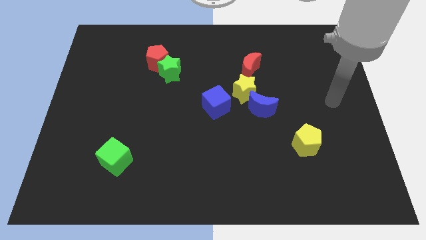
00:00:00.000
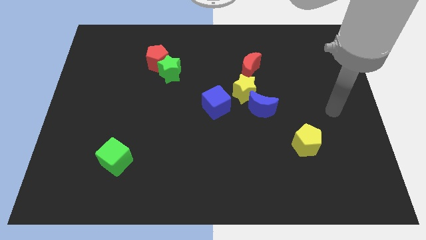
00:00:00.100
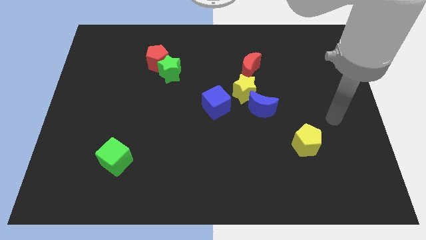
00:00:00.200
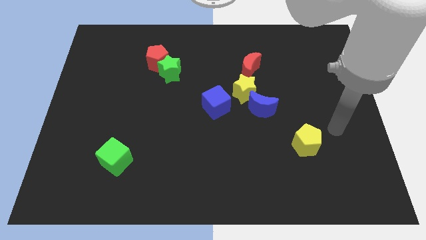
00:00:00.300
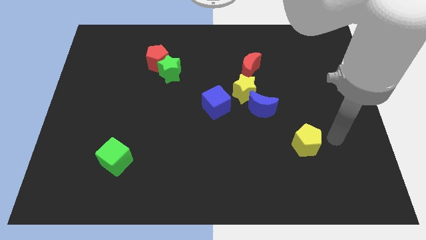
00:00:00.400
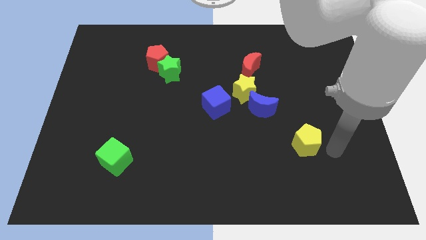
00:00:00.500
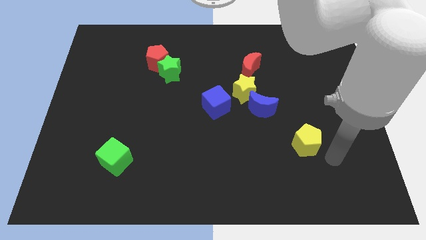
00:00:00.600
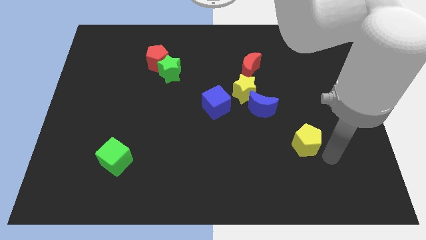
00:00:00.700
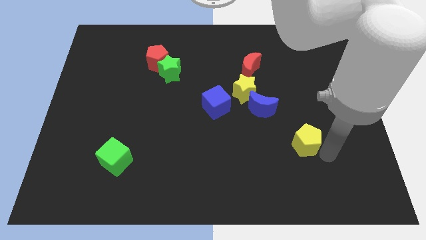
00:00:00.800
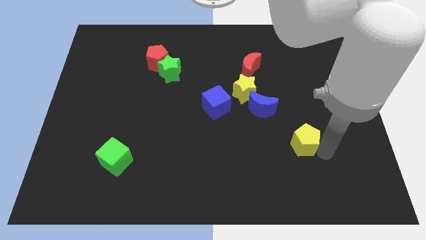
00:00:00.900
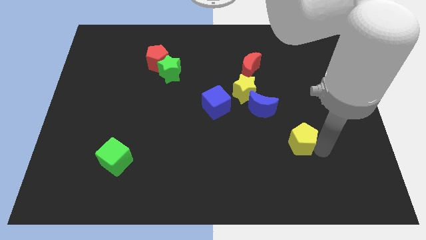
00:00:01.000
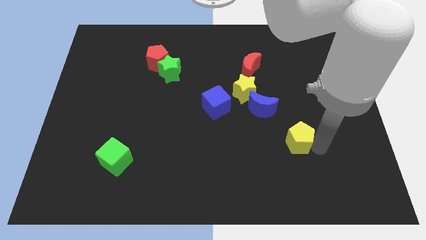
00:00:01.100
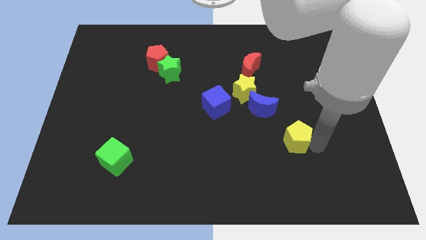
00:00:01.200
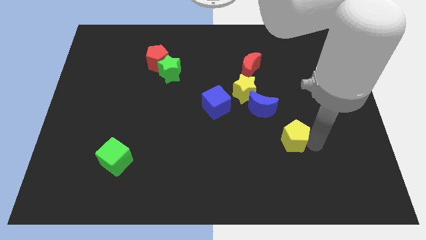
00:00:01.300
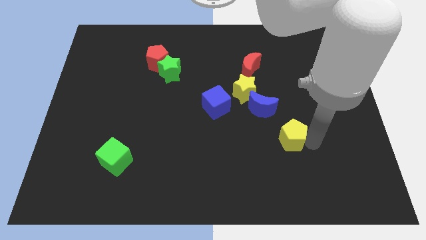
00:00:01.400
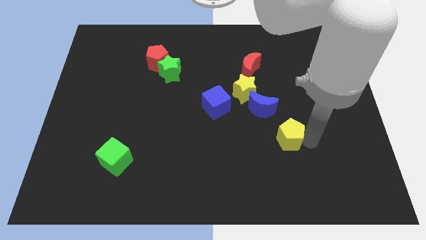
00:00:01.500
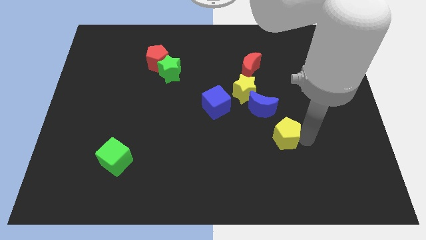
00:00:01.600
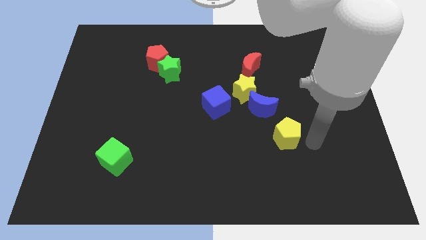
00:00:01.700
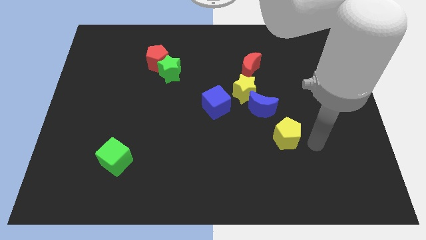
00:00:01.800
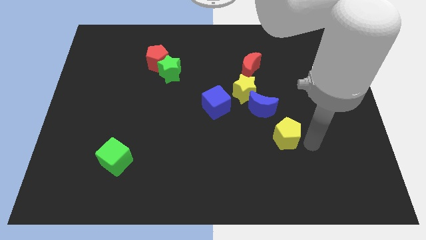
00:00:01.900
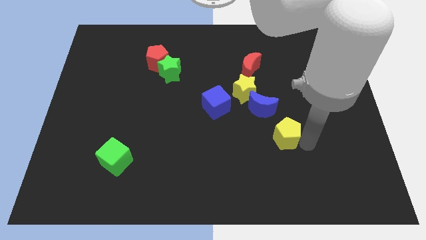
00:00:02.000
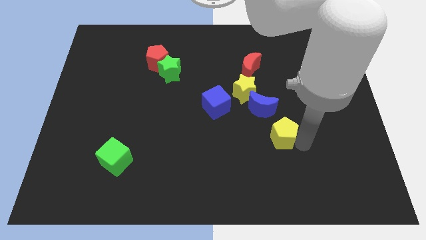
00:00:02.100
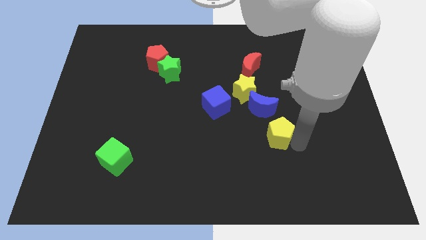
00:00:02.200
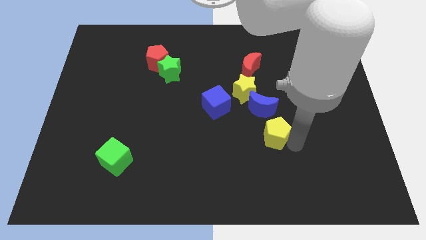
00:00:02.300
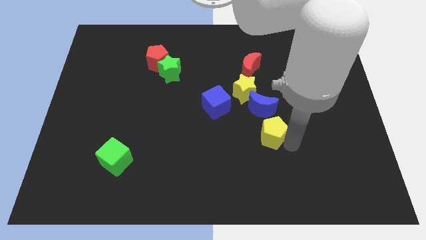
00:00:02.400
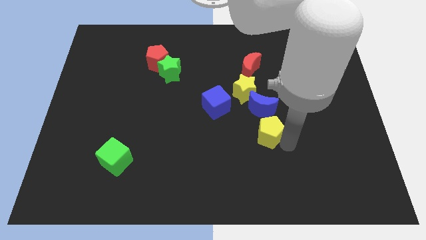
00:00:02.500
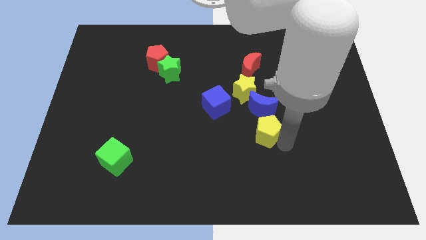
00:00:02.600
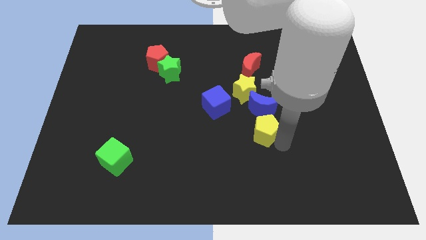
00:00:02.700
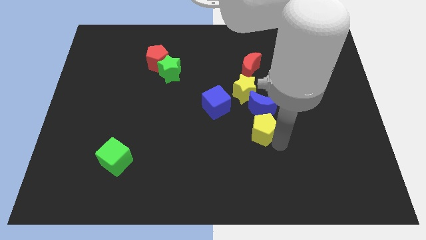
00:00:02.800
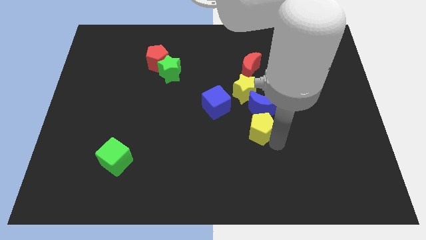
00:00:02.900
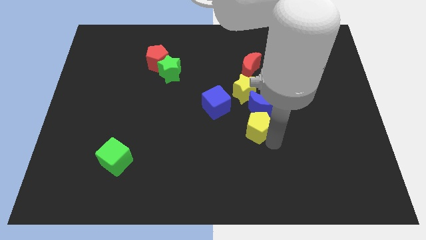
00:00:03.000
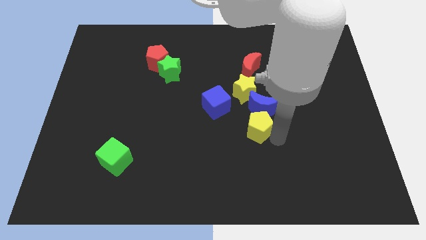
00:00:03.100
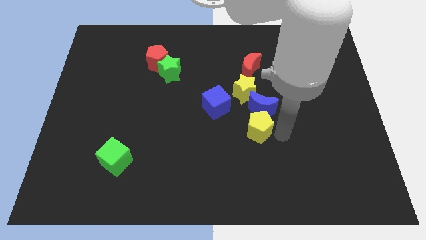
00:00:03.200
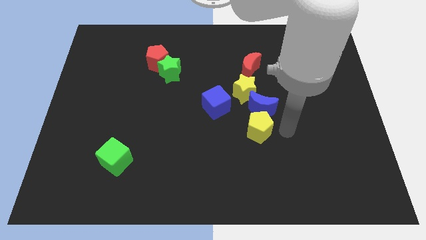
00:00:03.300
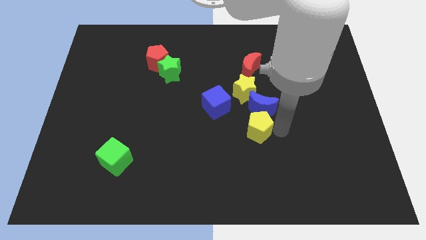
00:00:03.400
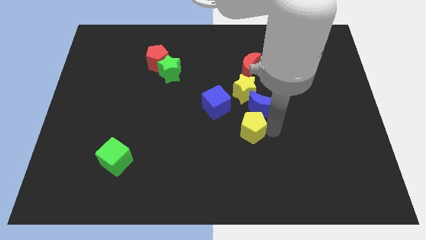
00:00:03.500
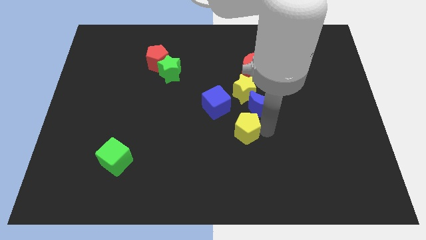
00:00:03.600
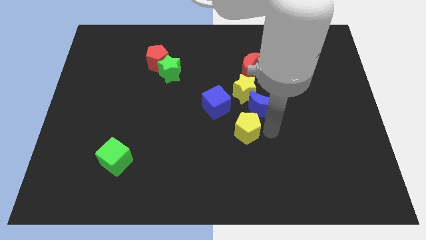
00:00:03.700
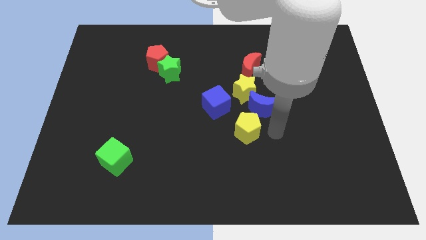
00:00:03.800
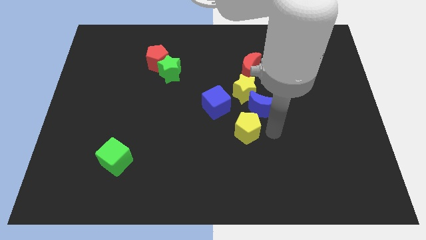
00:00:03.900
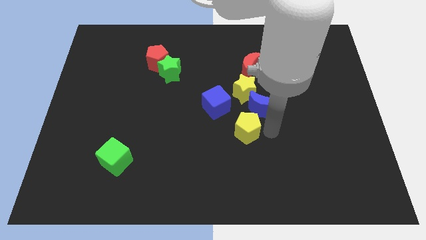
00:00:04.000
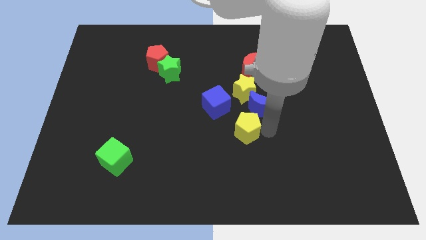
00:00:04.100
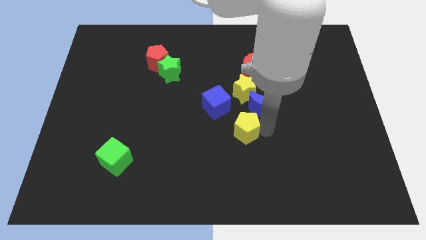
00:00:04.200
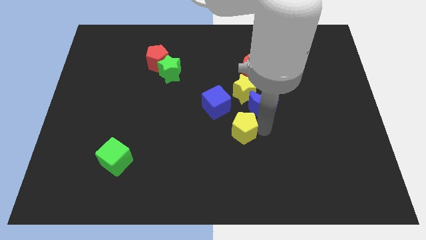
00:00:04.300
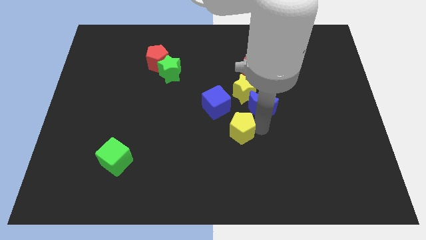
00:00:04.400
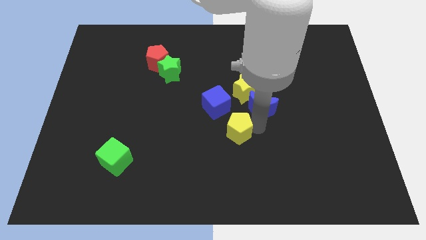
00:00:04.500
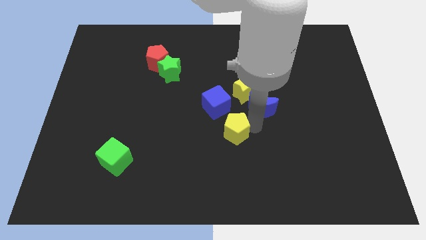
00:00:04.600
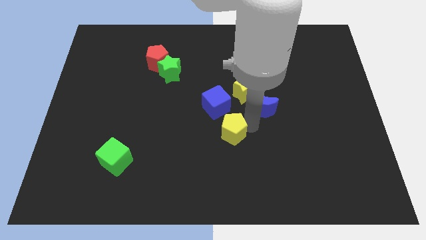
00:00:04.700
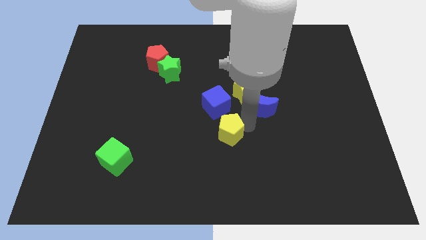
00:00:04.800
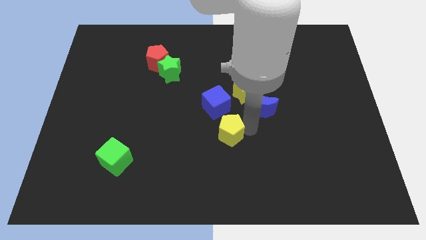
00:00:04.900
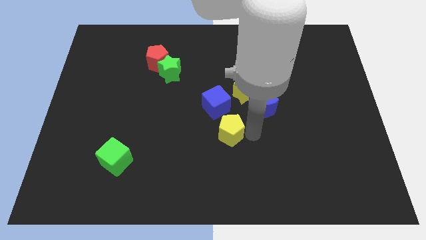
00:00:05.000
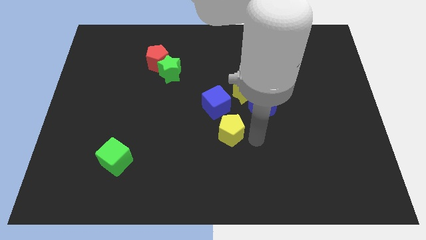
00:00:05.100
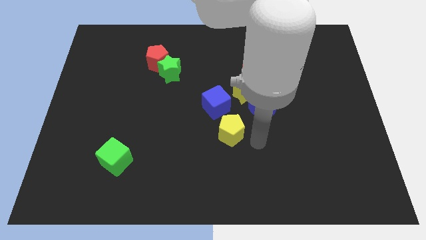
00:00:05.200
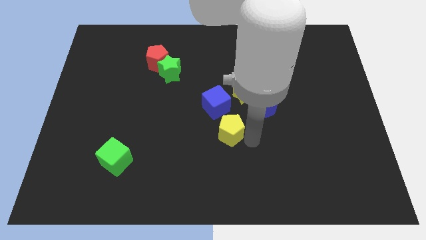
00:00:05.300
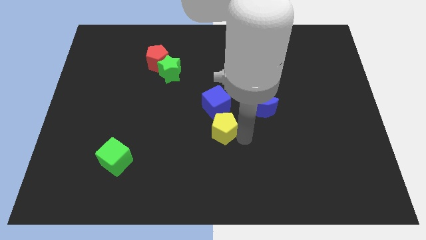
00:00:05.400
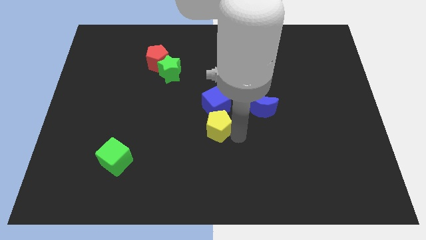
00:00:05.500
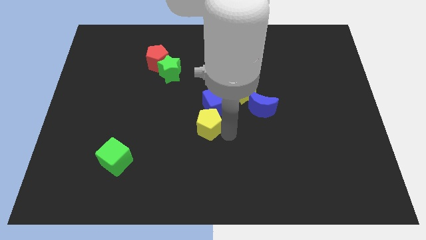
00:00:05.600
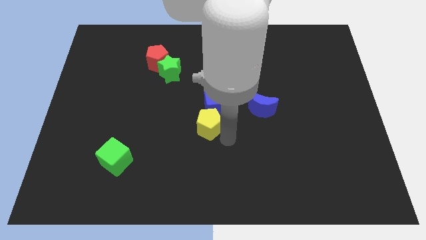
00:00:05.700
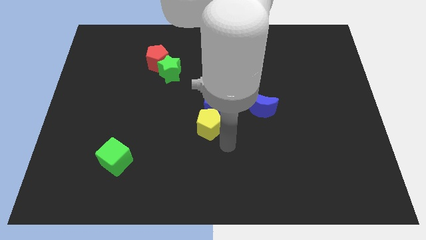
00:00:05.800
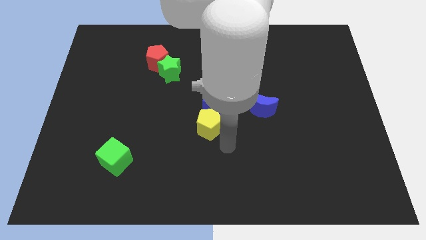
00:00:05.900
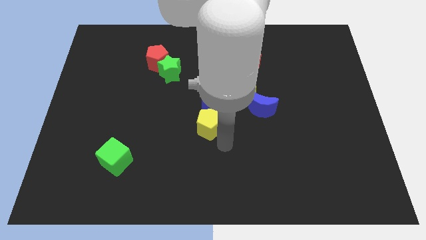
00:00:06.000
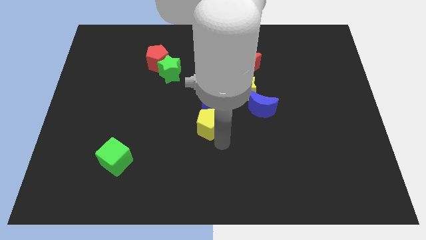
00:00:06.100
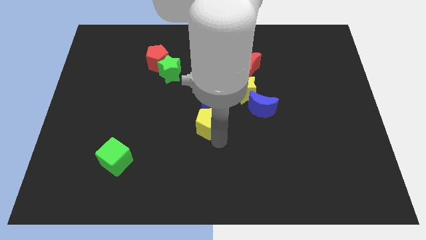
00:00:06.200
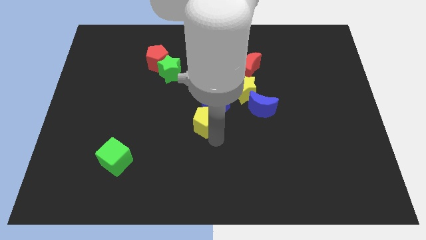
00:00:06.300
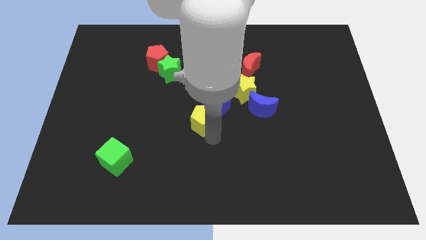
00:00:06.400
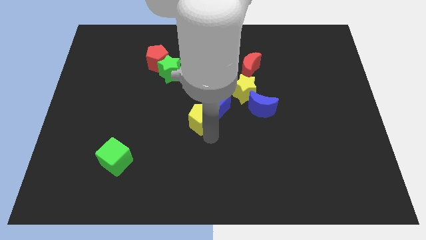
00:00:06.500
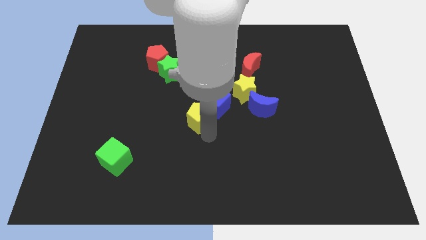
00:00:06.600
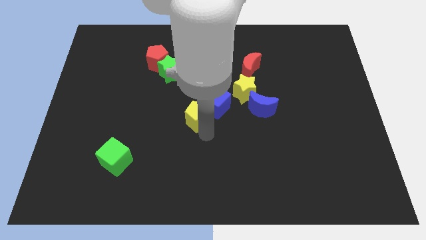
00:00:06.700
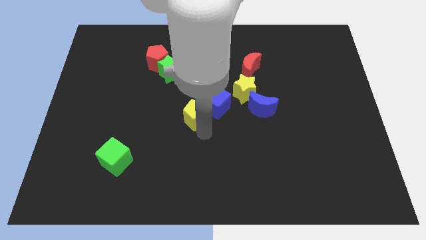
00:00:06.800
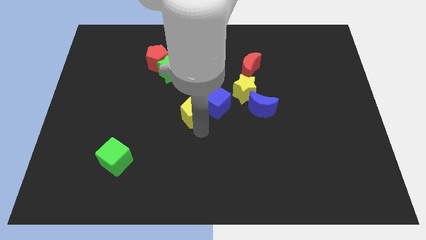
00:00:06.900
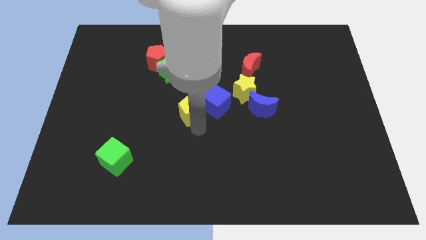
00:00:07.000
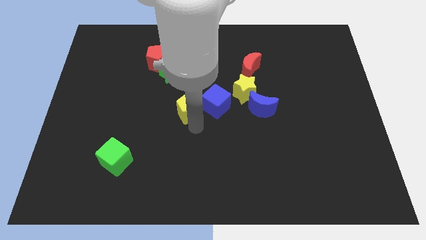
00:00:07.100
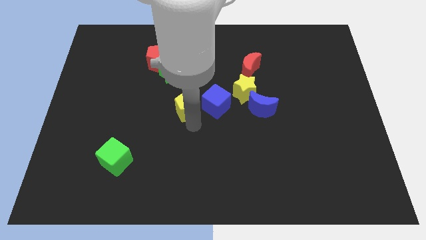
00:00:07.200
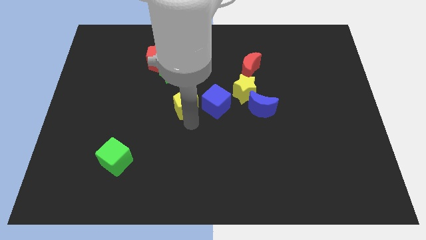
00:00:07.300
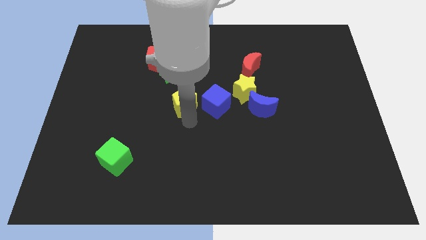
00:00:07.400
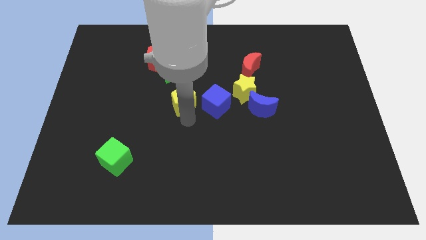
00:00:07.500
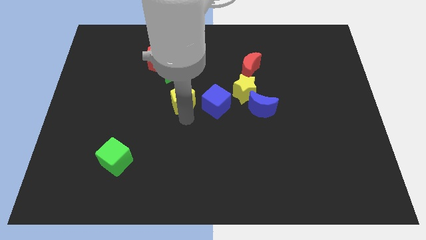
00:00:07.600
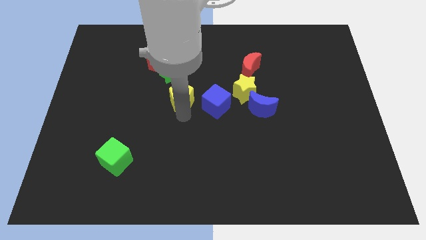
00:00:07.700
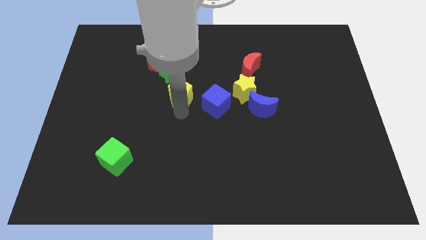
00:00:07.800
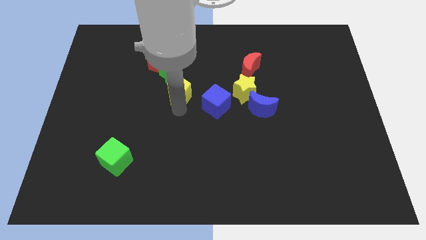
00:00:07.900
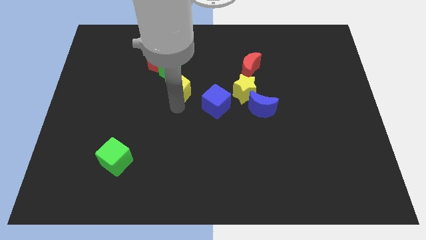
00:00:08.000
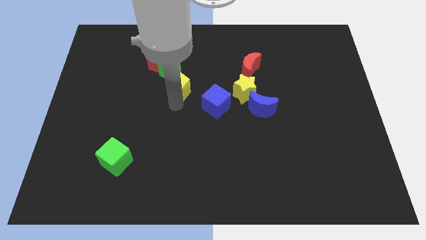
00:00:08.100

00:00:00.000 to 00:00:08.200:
put the yellow pentagon towards the green star

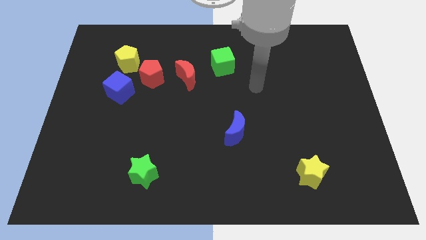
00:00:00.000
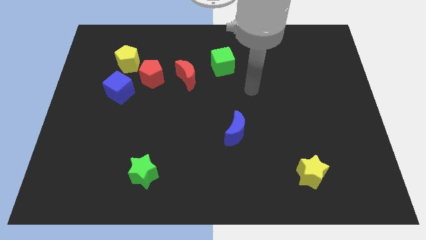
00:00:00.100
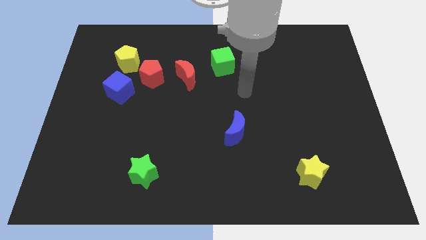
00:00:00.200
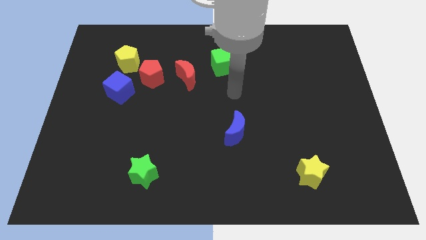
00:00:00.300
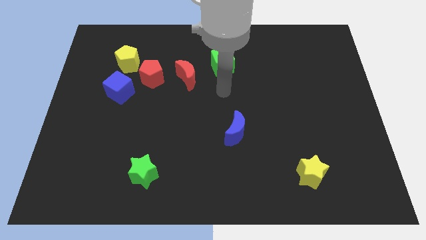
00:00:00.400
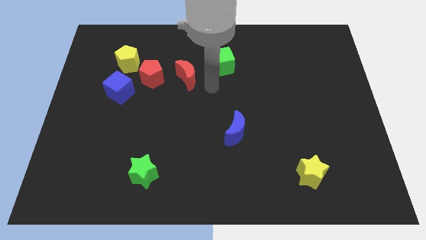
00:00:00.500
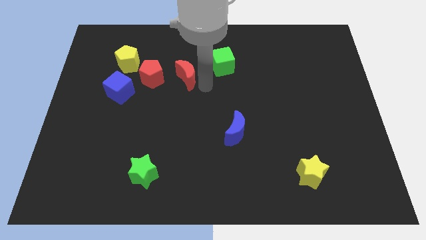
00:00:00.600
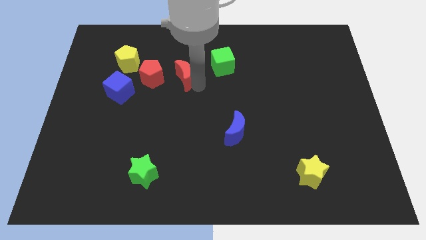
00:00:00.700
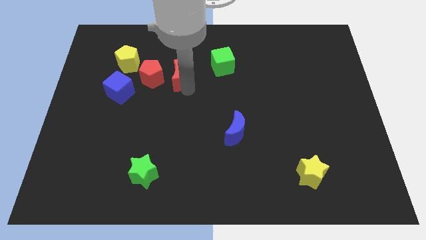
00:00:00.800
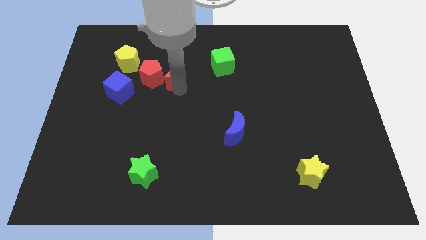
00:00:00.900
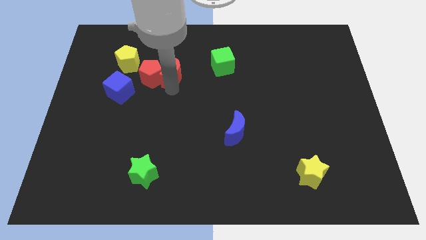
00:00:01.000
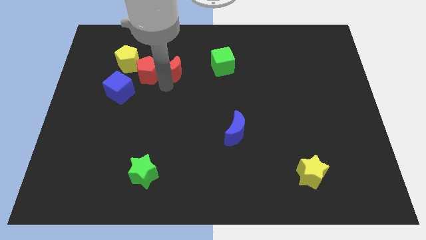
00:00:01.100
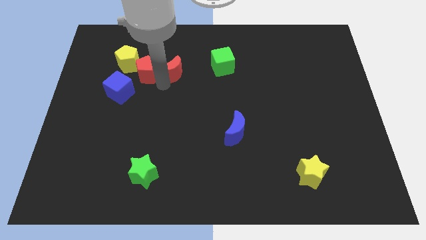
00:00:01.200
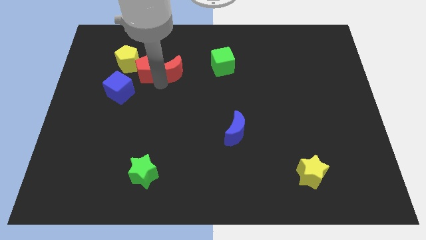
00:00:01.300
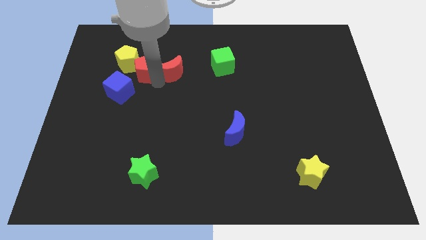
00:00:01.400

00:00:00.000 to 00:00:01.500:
push the red pentagon towards the yellow pentagon
